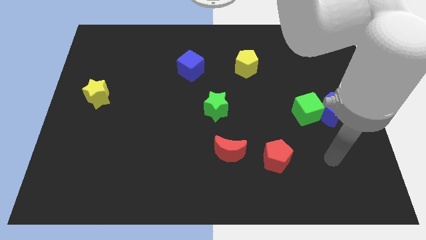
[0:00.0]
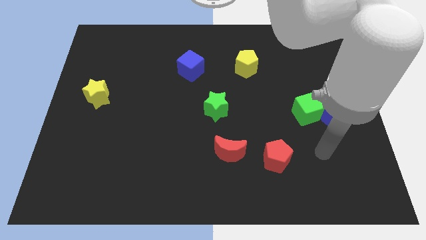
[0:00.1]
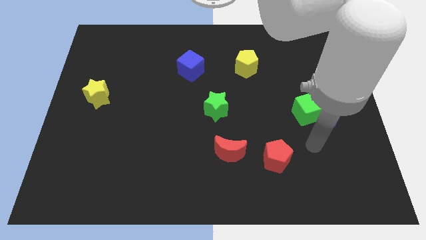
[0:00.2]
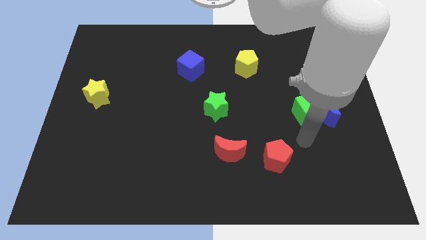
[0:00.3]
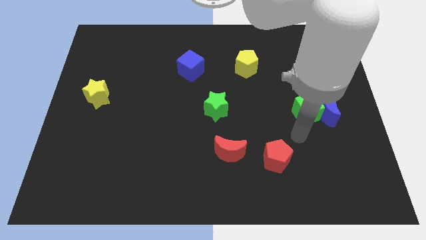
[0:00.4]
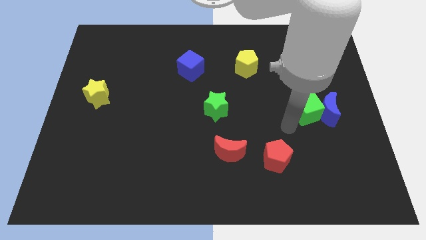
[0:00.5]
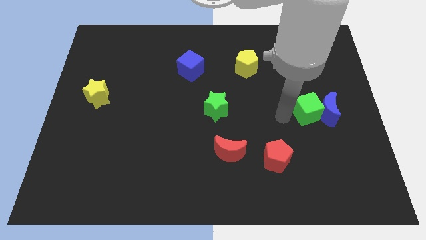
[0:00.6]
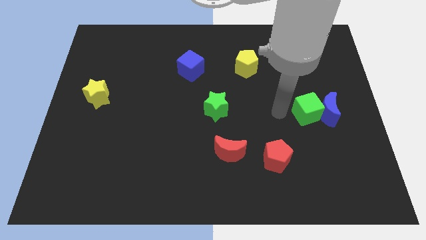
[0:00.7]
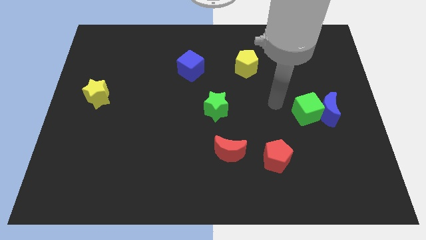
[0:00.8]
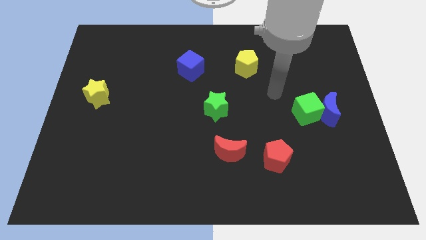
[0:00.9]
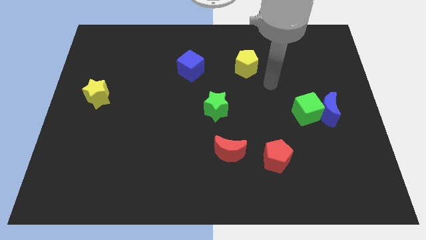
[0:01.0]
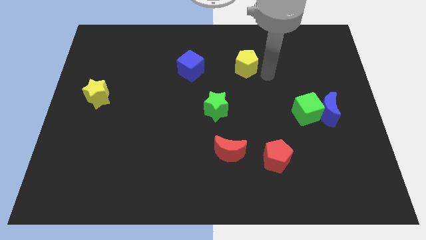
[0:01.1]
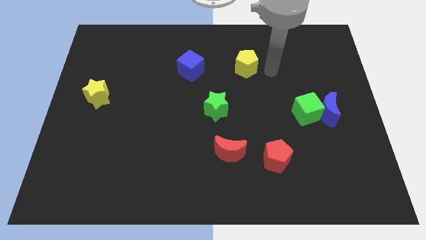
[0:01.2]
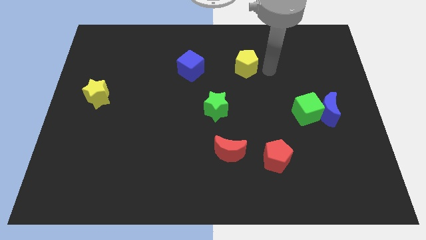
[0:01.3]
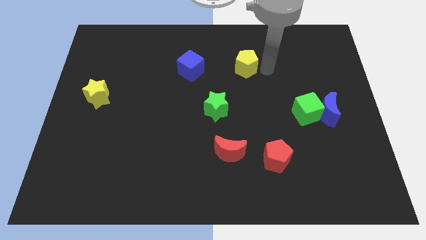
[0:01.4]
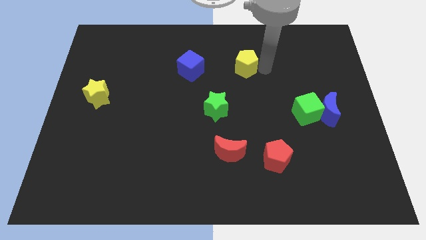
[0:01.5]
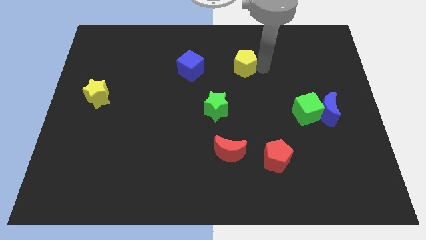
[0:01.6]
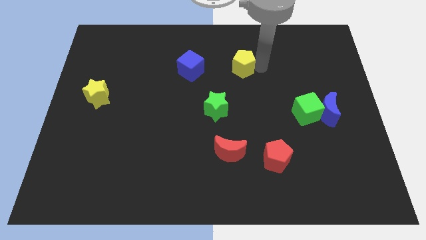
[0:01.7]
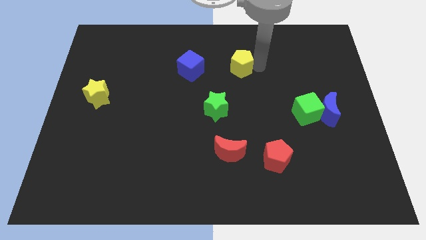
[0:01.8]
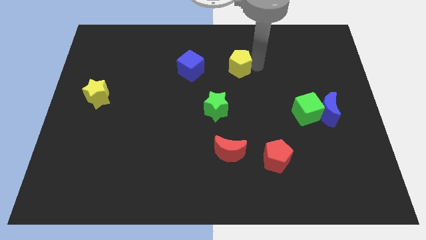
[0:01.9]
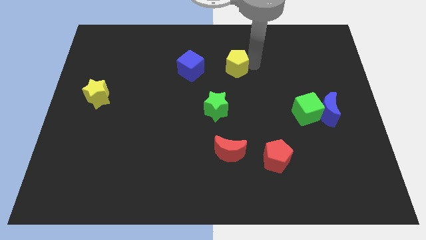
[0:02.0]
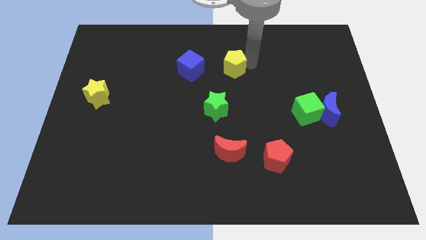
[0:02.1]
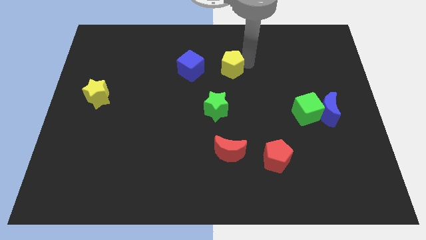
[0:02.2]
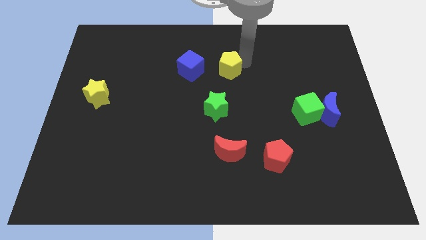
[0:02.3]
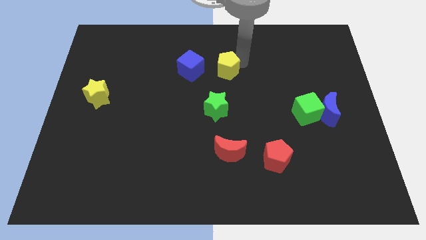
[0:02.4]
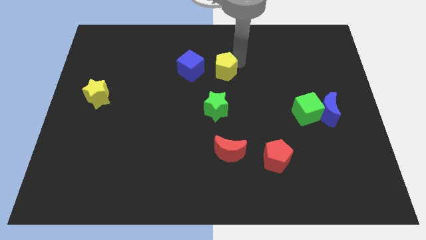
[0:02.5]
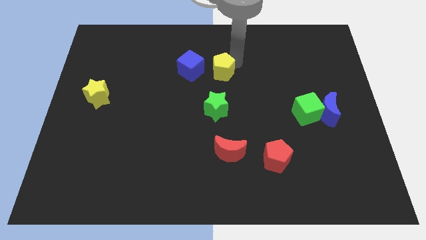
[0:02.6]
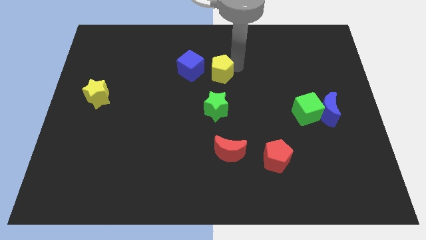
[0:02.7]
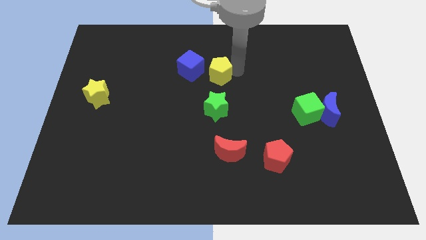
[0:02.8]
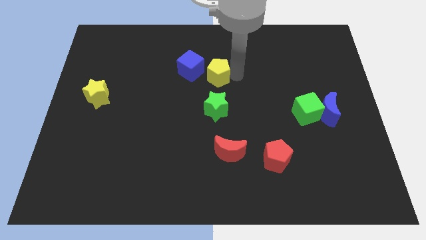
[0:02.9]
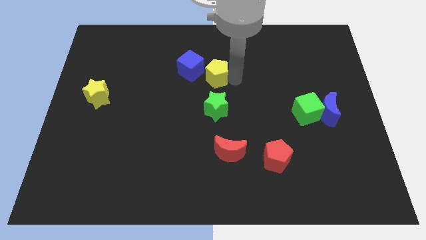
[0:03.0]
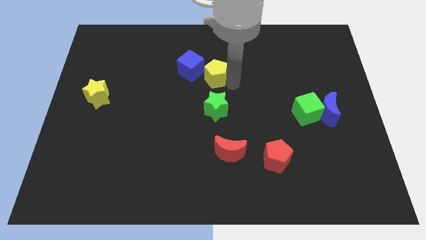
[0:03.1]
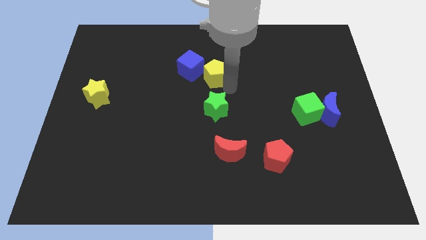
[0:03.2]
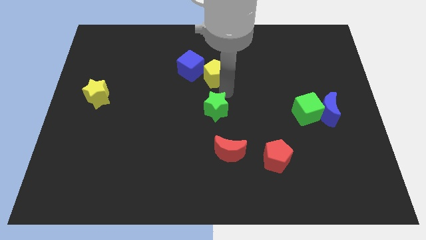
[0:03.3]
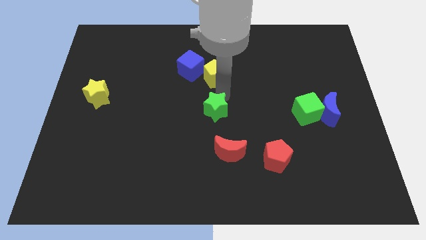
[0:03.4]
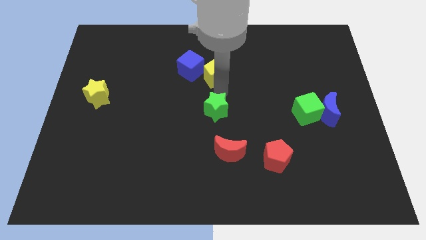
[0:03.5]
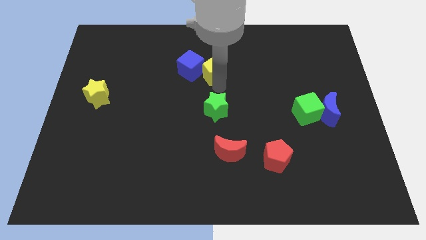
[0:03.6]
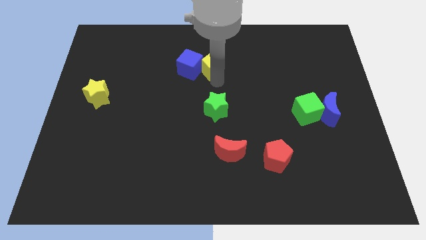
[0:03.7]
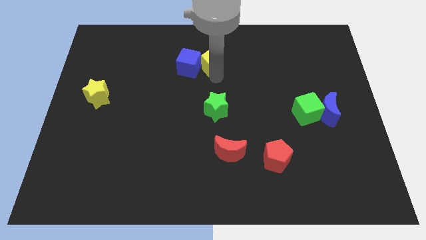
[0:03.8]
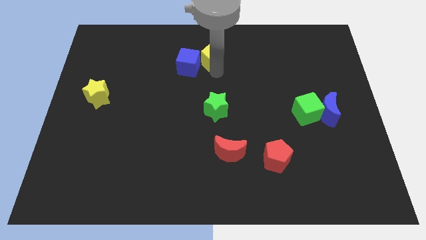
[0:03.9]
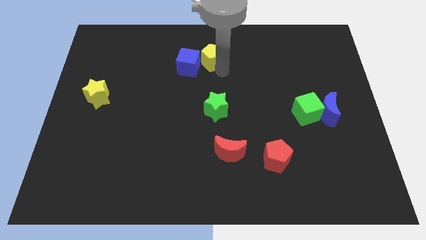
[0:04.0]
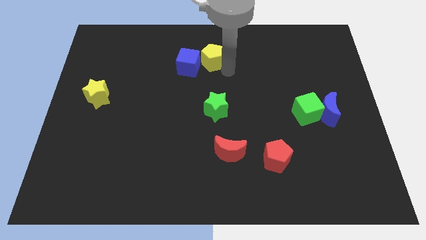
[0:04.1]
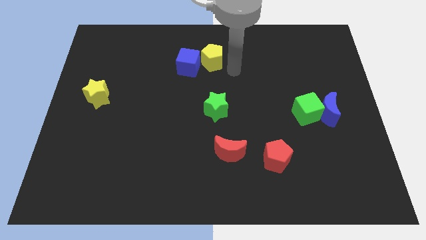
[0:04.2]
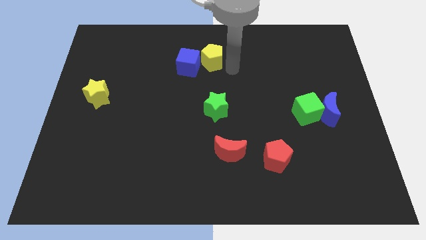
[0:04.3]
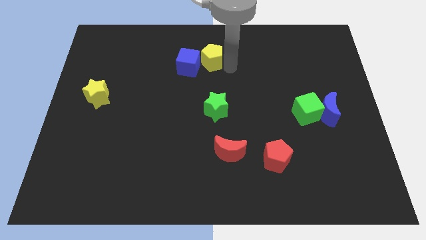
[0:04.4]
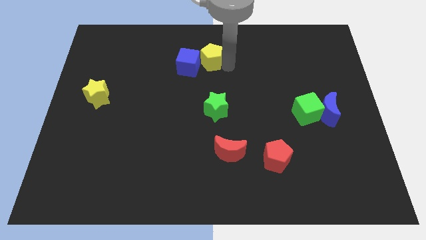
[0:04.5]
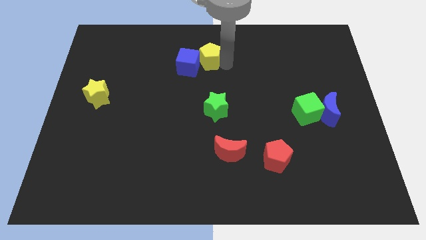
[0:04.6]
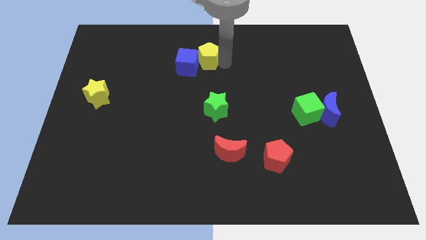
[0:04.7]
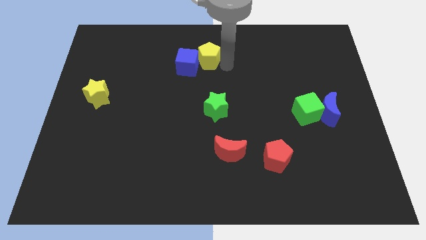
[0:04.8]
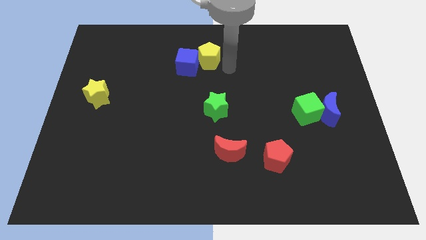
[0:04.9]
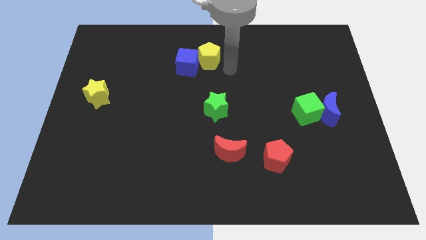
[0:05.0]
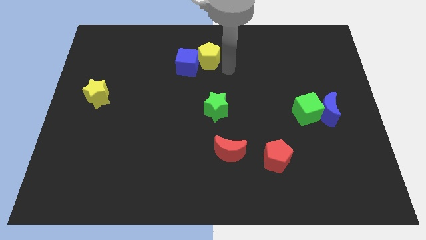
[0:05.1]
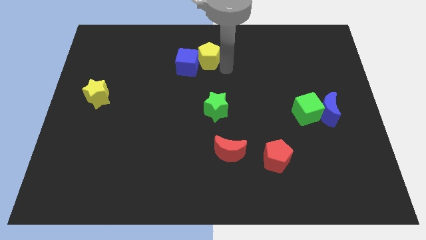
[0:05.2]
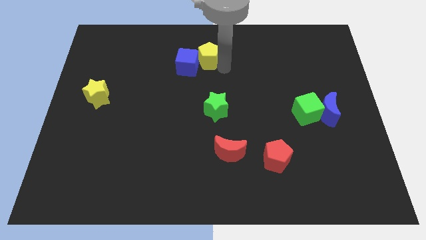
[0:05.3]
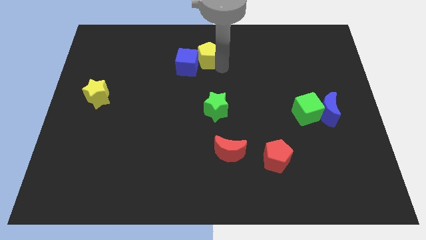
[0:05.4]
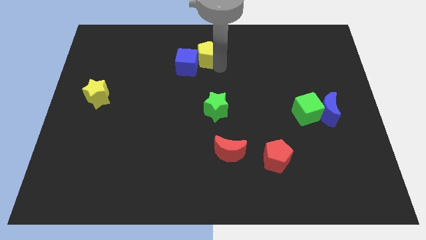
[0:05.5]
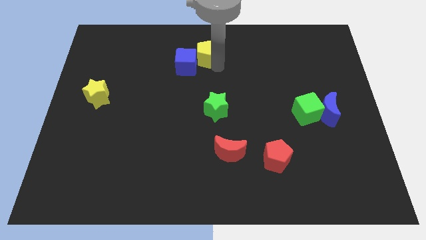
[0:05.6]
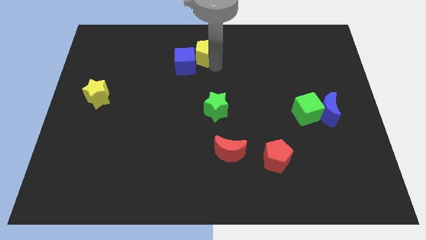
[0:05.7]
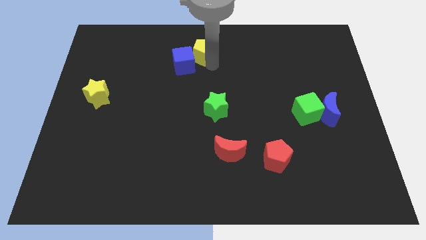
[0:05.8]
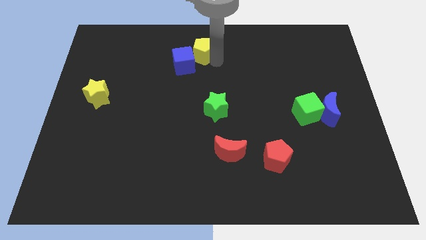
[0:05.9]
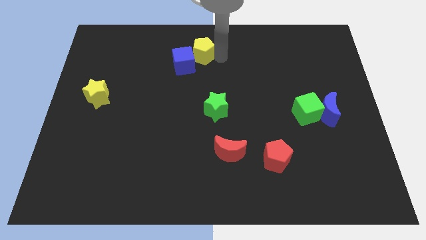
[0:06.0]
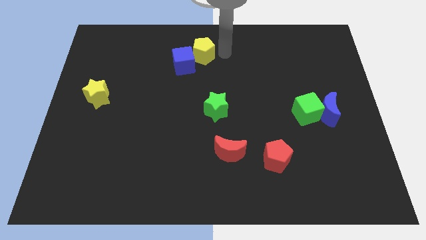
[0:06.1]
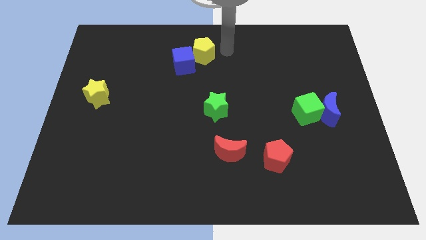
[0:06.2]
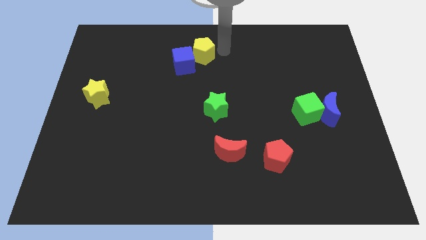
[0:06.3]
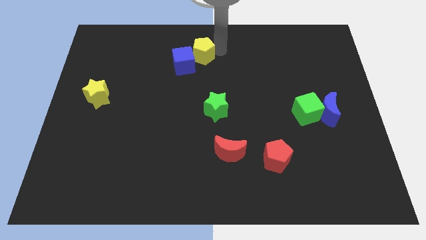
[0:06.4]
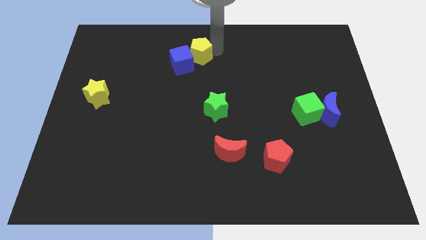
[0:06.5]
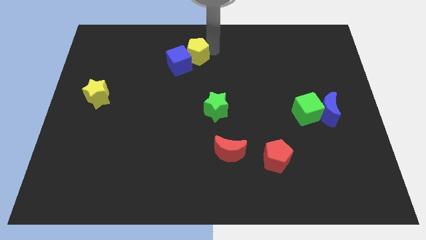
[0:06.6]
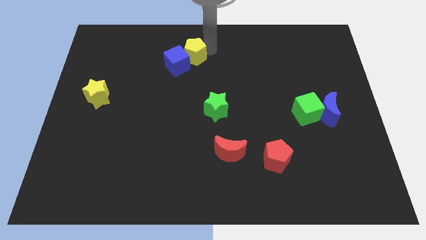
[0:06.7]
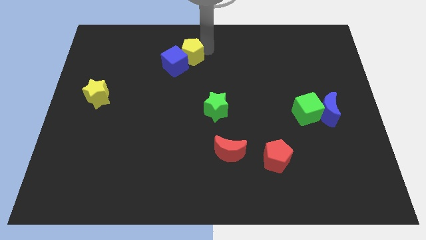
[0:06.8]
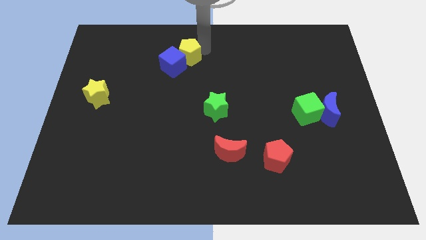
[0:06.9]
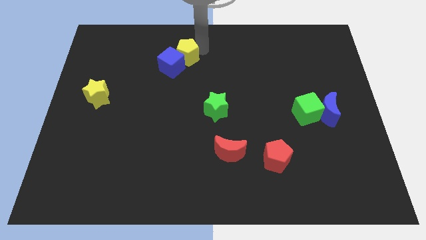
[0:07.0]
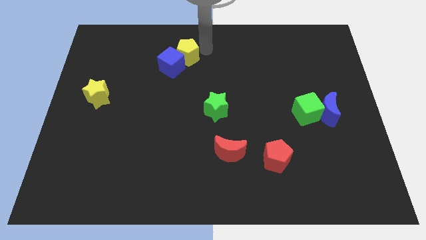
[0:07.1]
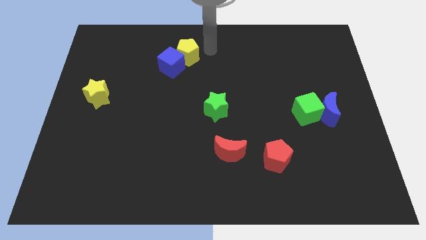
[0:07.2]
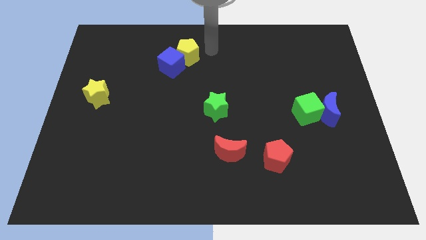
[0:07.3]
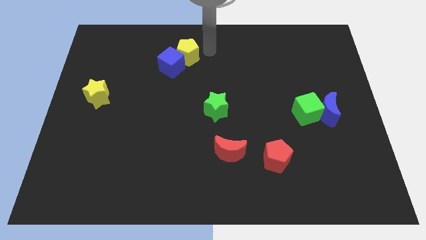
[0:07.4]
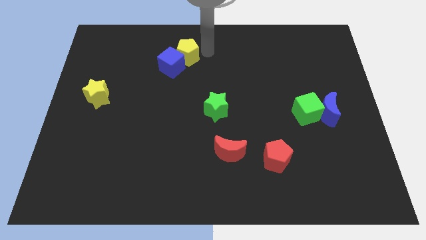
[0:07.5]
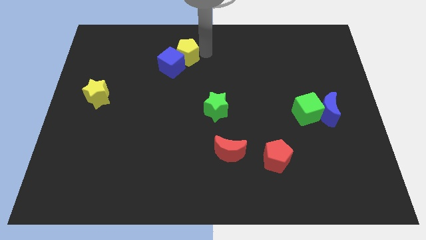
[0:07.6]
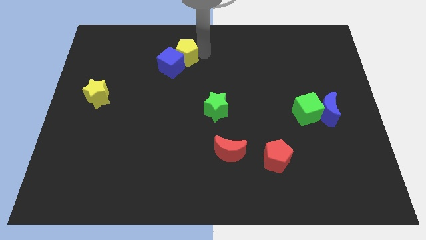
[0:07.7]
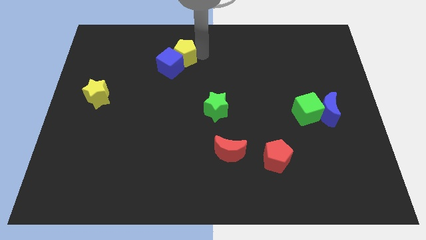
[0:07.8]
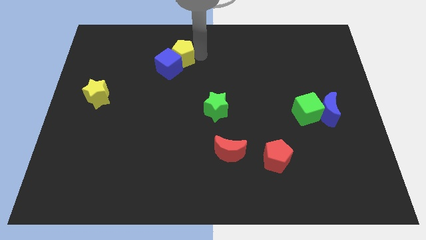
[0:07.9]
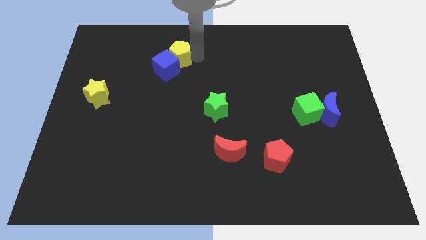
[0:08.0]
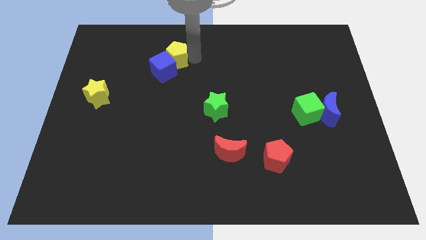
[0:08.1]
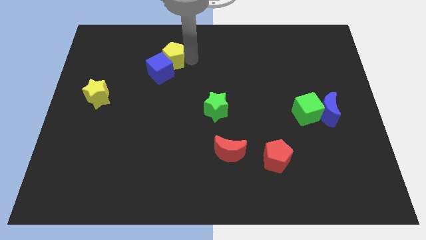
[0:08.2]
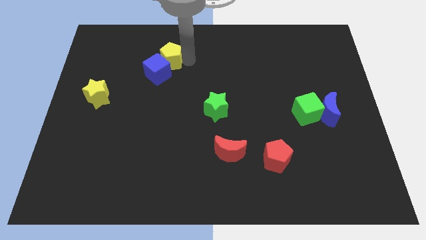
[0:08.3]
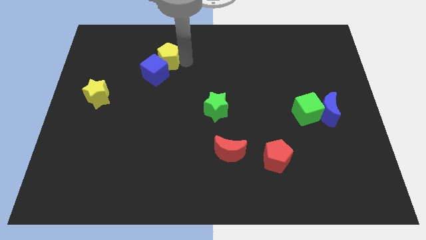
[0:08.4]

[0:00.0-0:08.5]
push the yellow pentagon to the left
